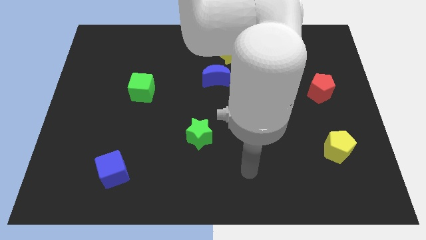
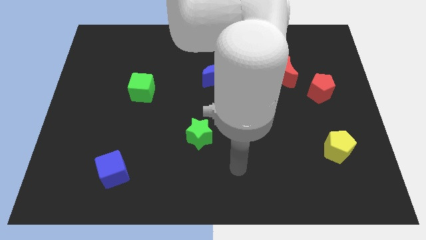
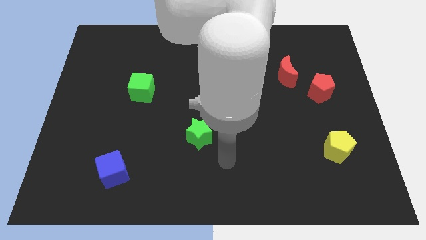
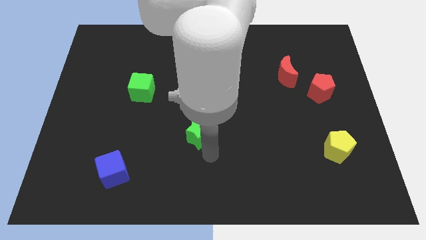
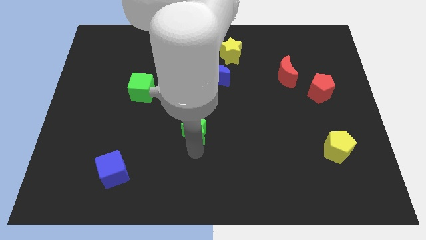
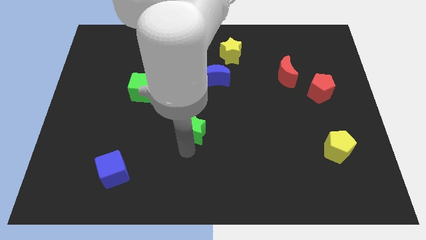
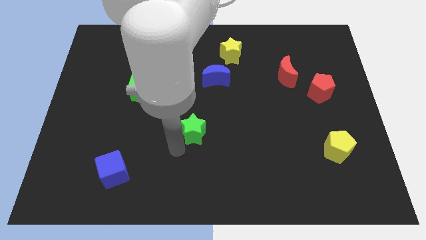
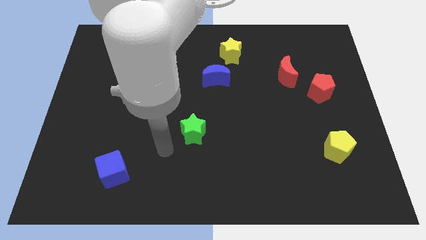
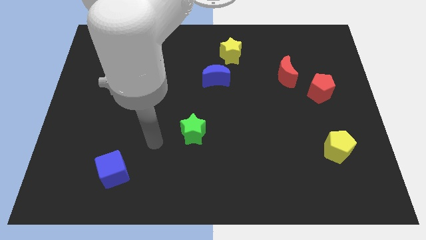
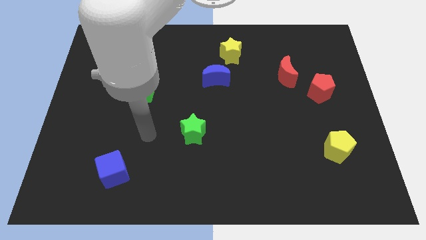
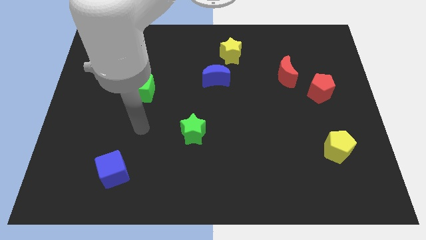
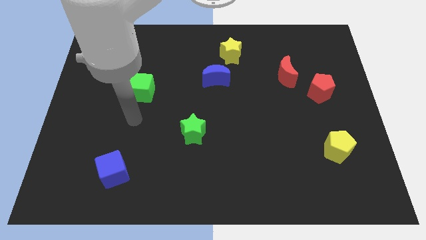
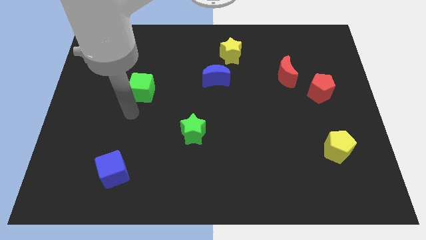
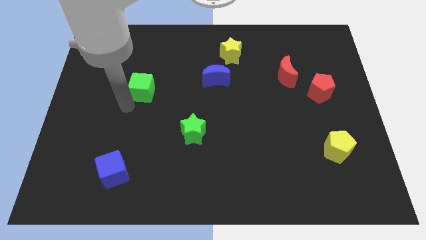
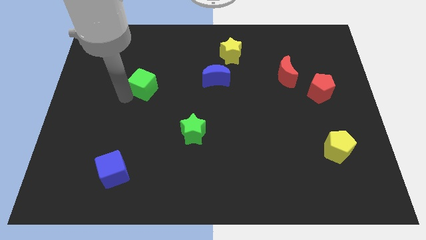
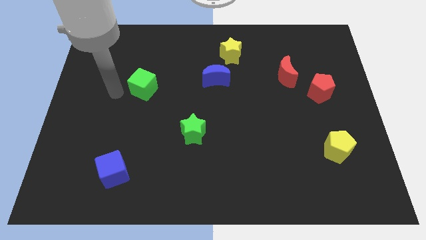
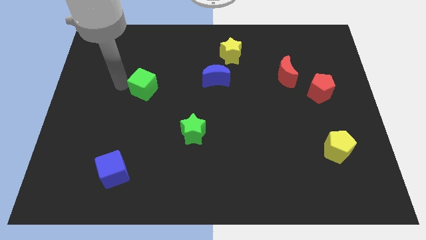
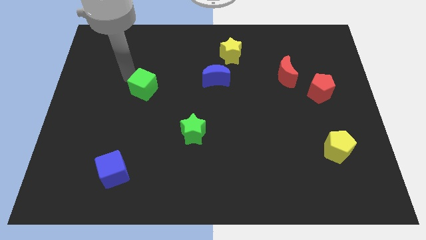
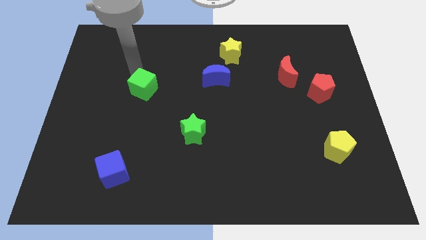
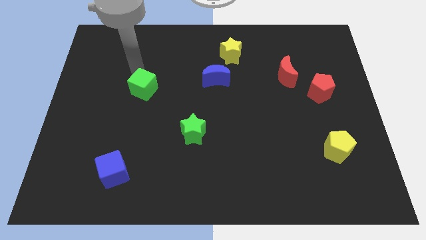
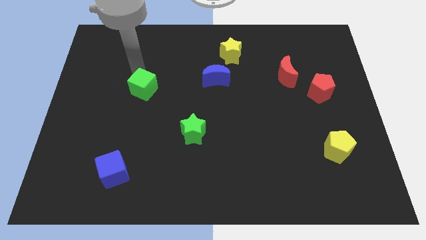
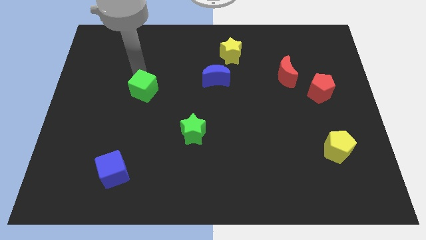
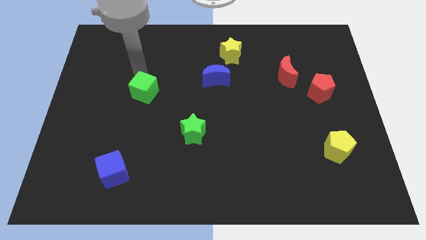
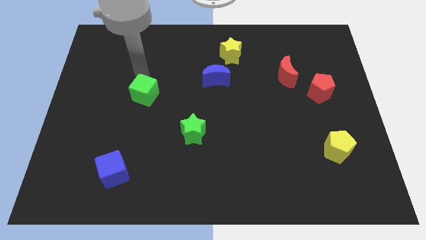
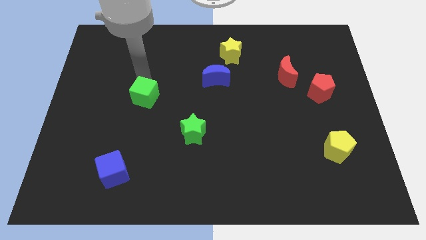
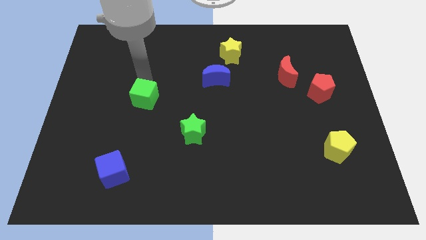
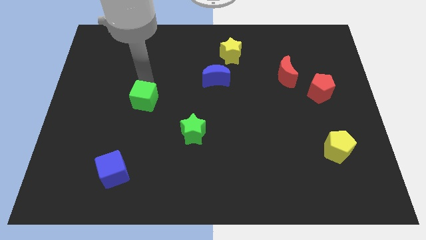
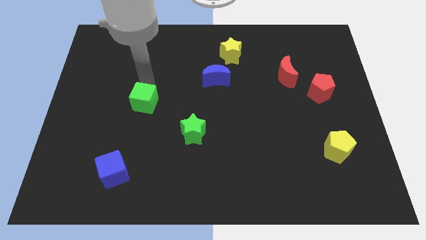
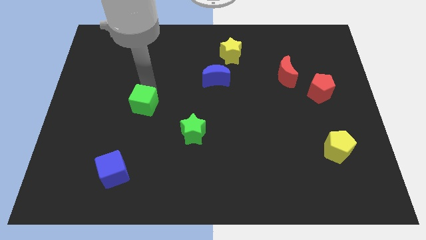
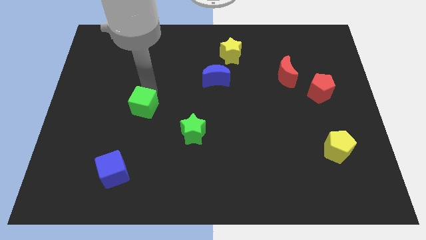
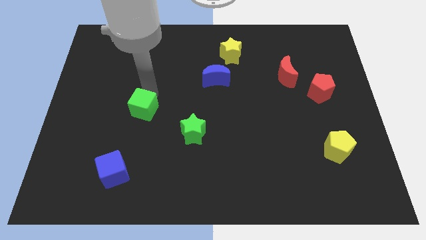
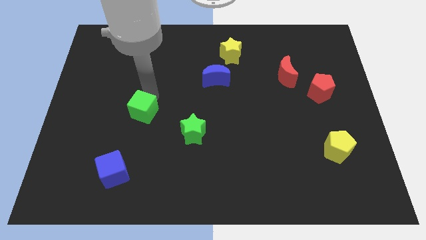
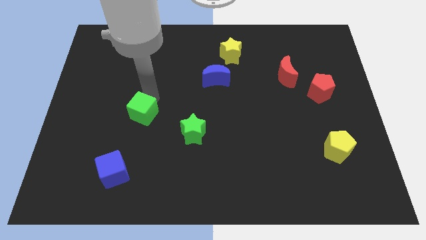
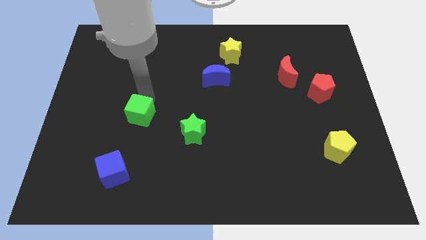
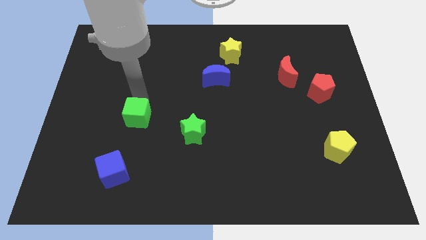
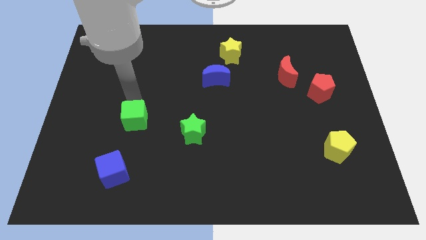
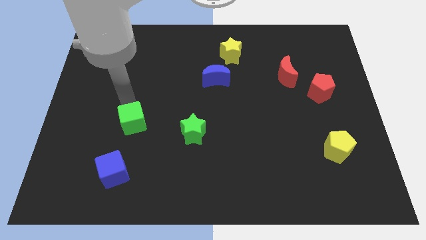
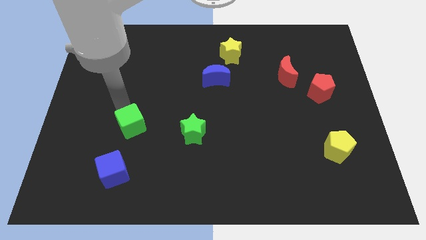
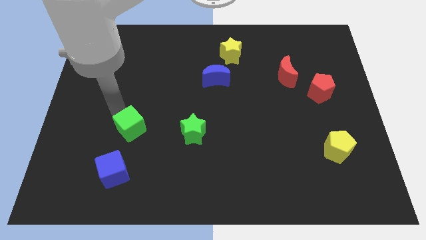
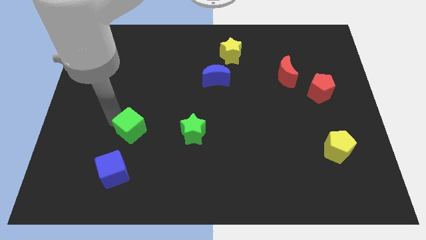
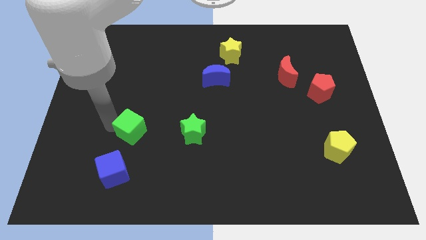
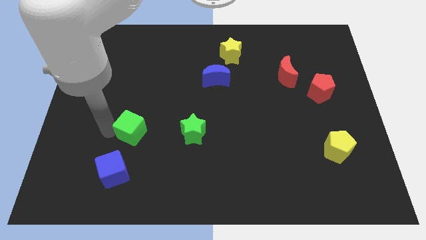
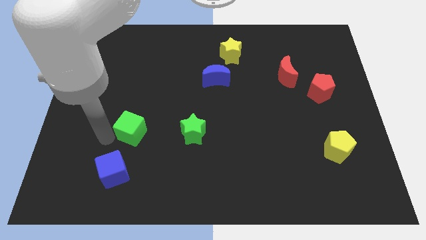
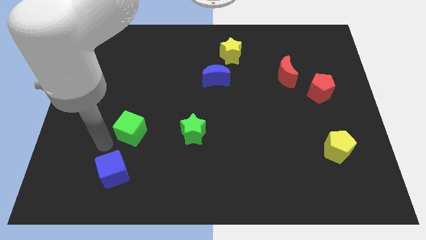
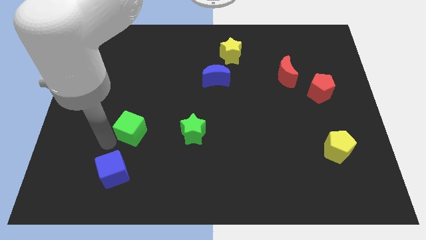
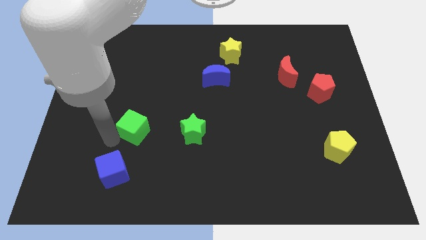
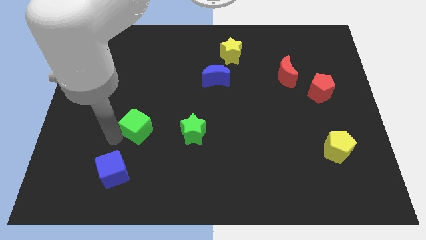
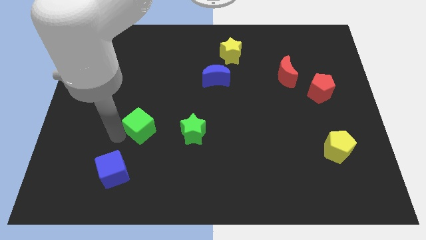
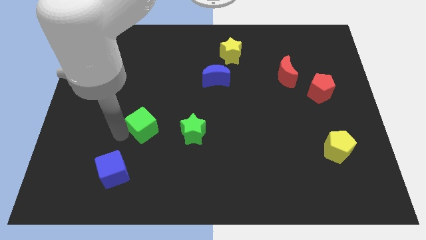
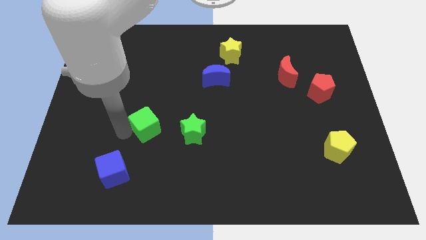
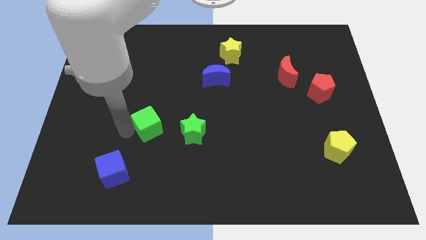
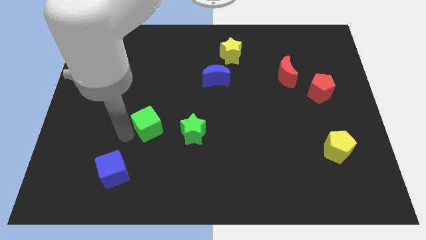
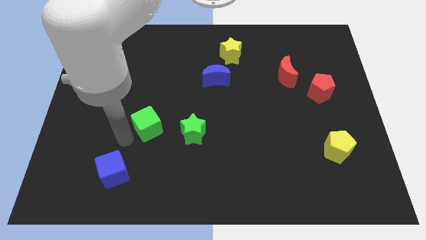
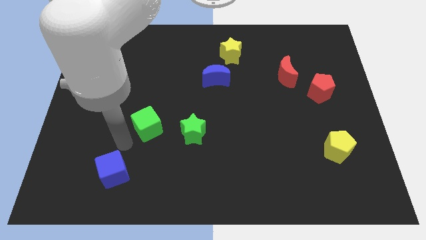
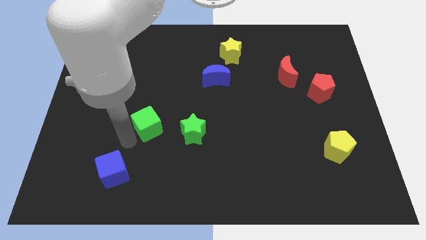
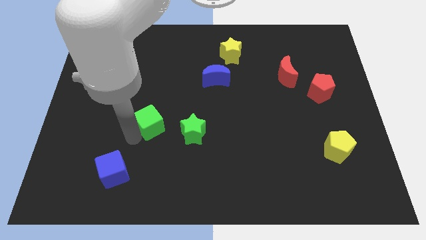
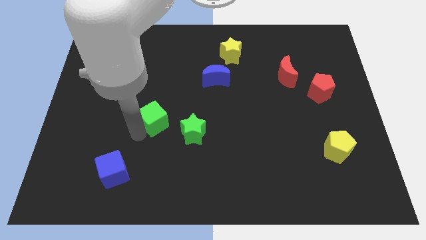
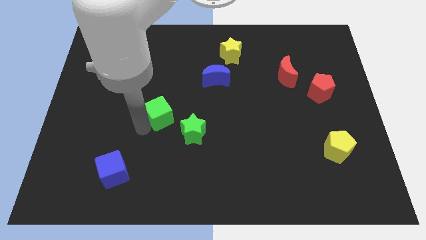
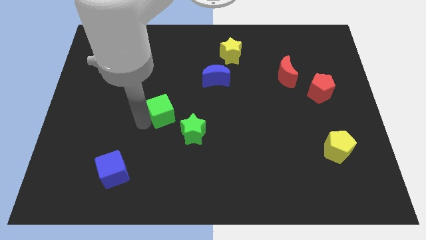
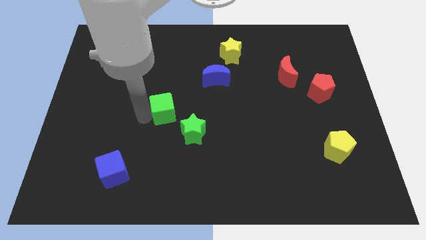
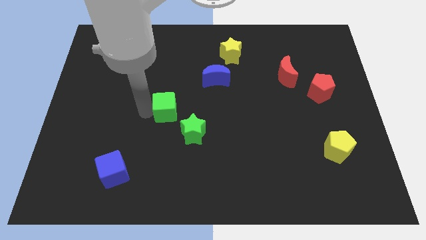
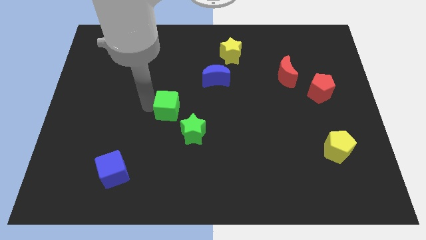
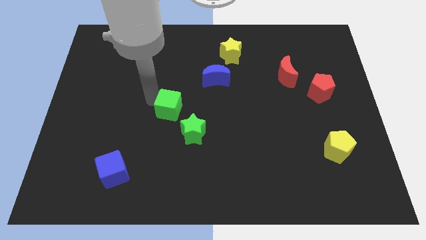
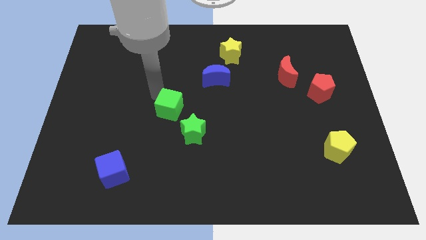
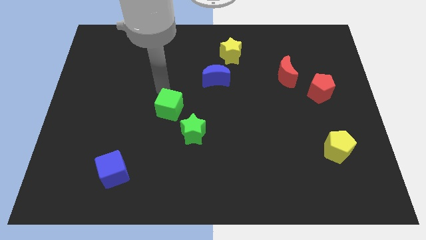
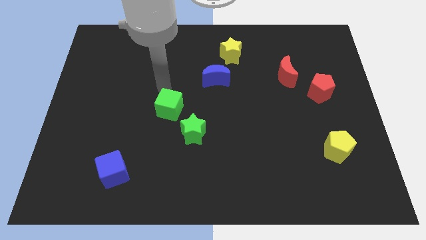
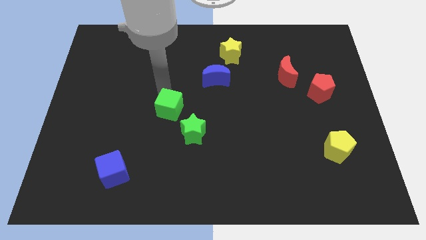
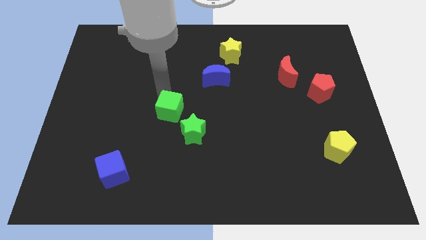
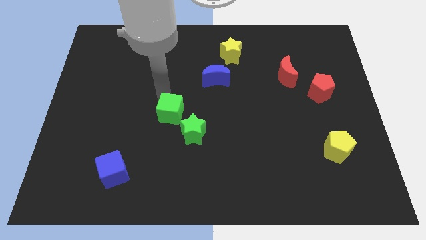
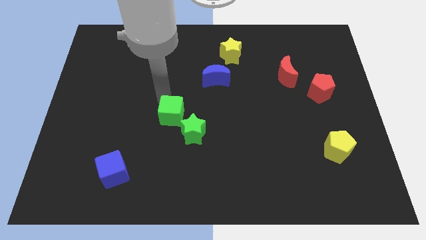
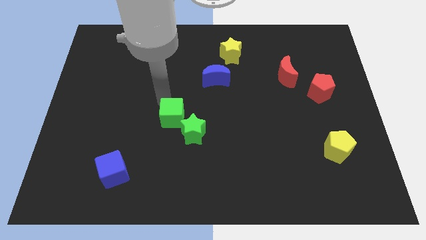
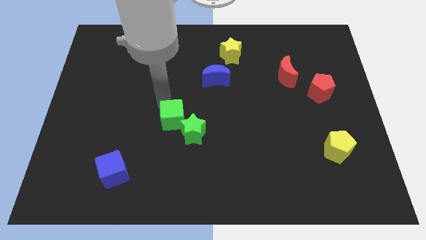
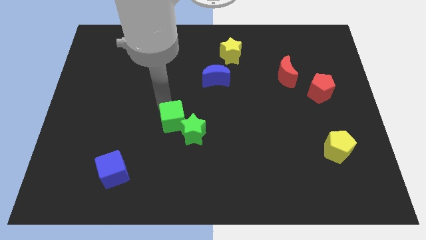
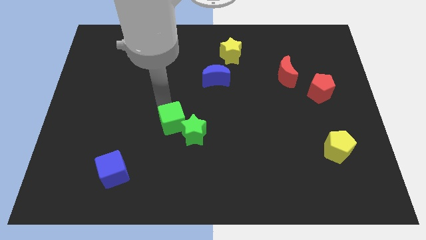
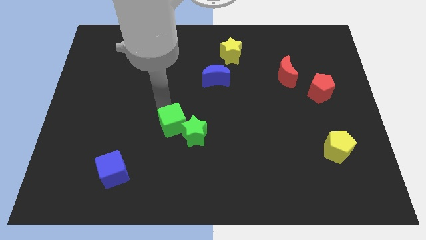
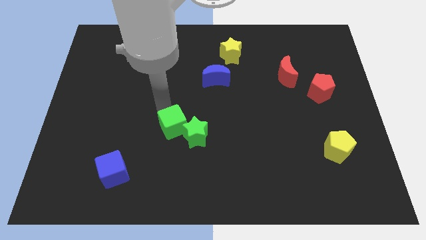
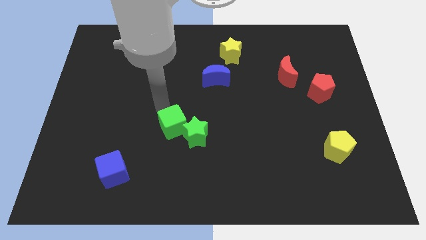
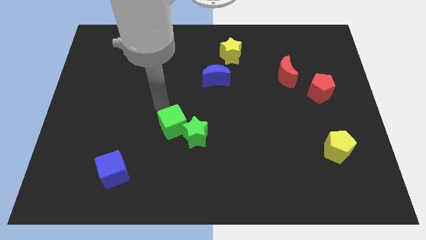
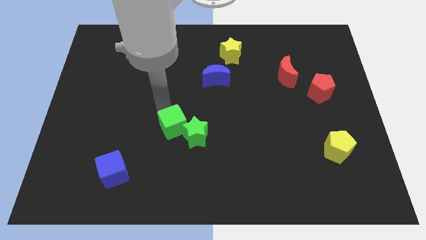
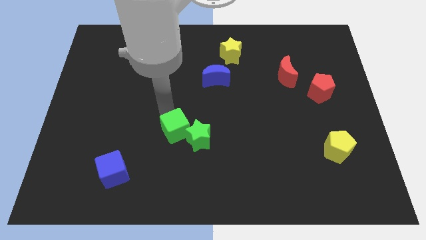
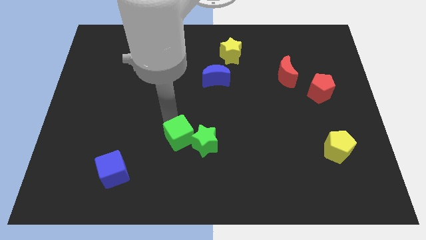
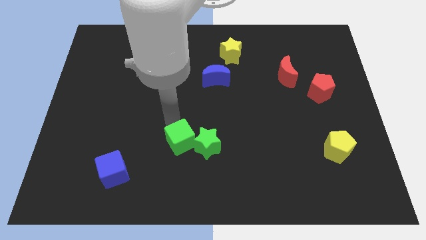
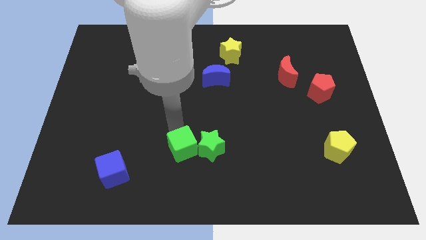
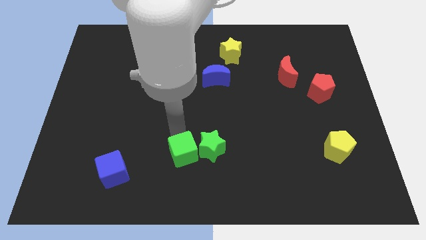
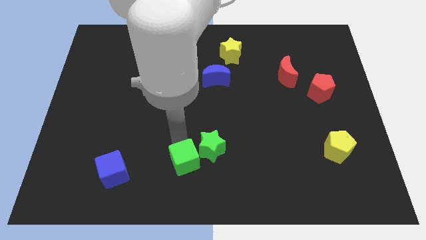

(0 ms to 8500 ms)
slide the green cube to the bottom
